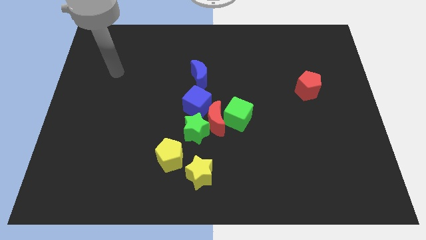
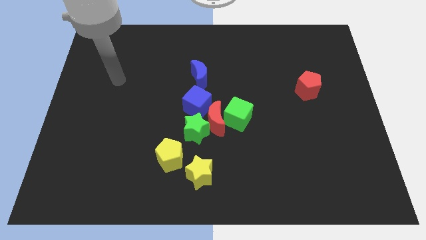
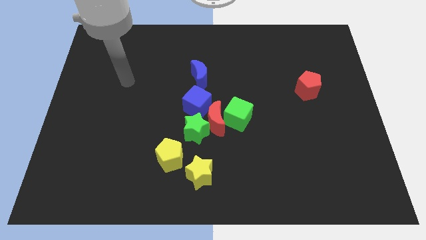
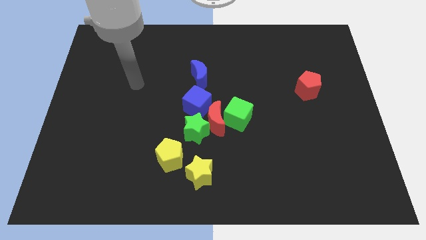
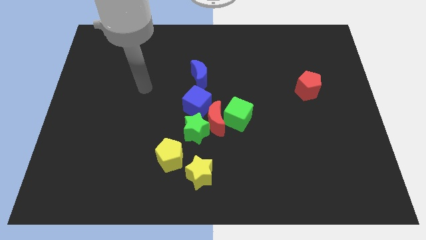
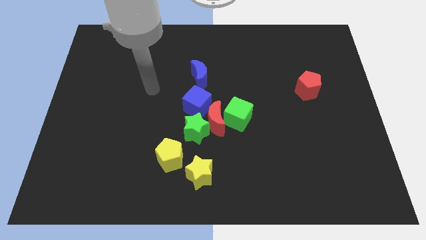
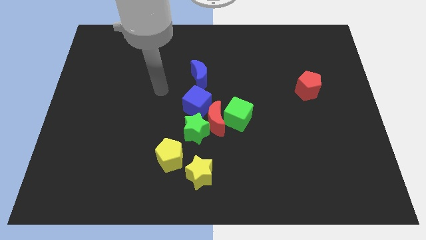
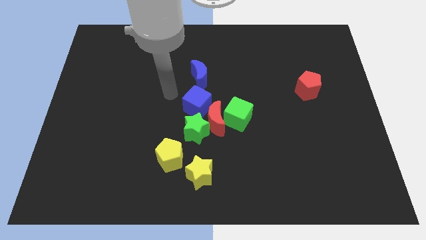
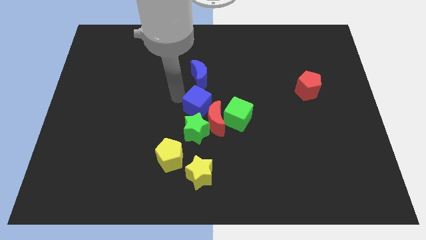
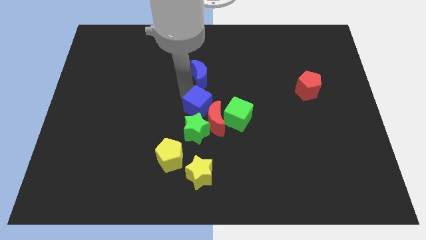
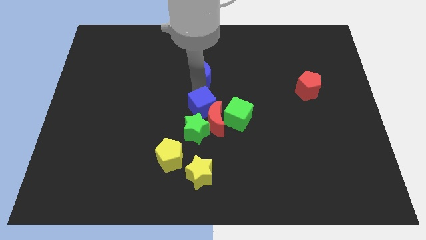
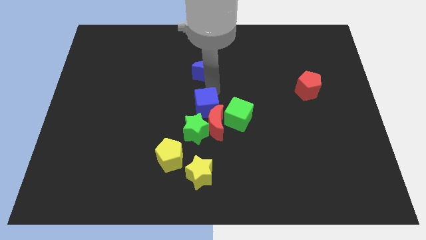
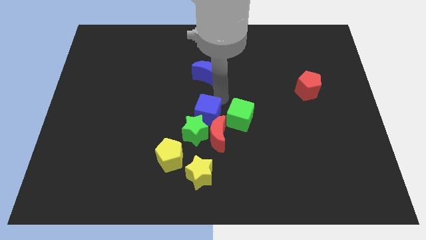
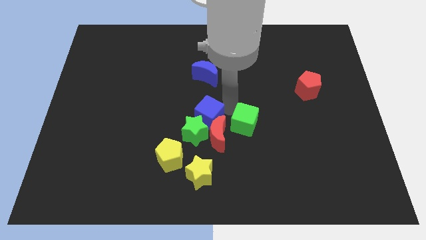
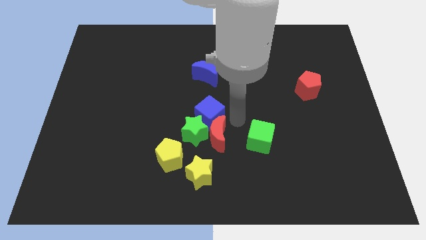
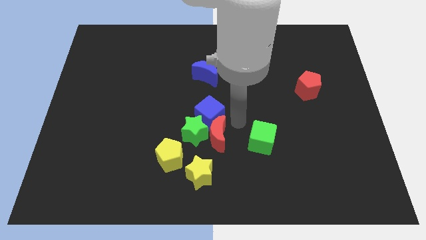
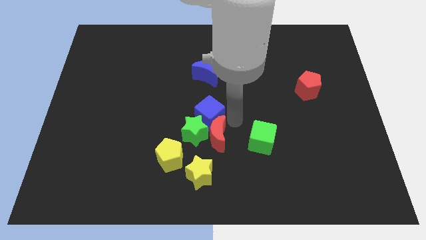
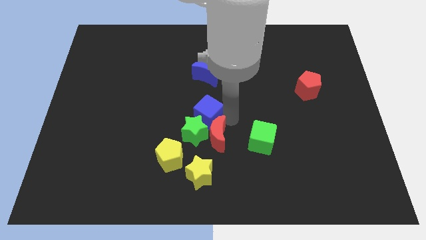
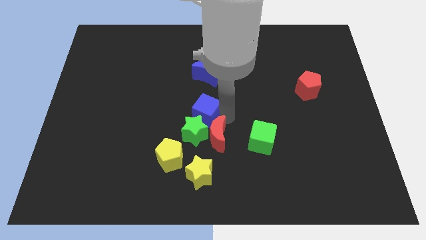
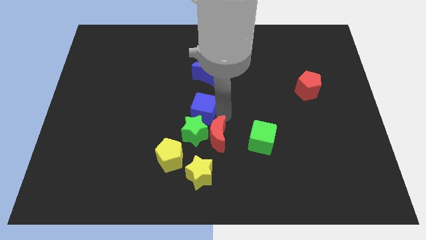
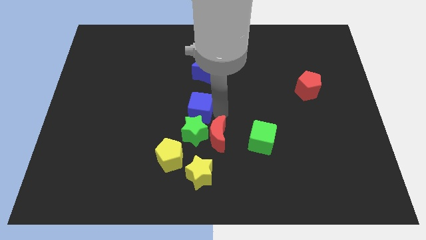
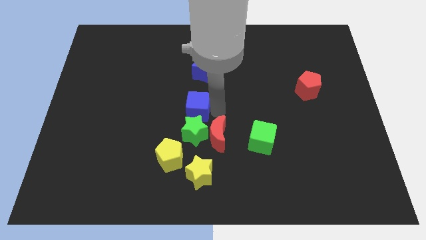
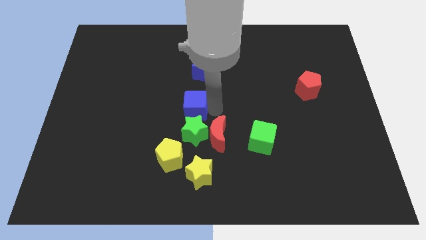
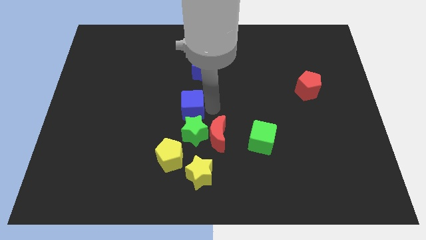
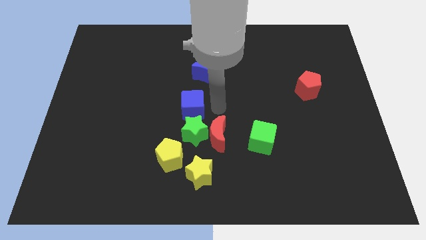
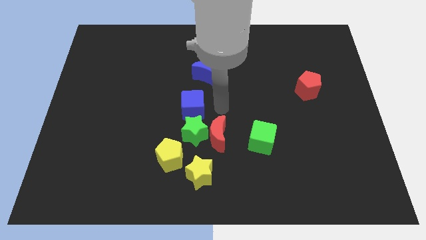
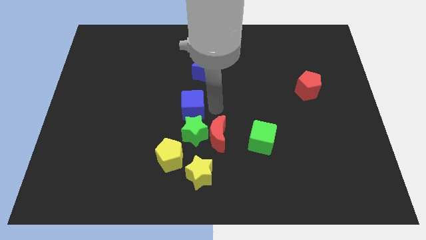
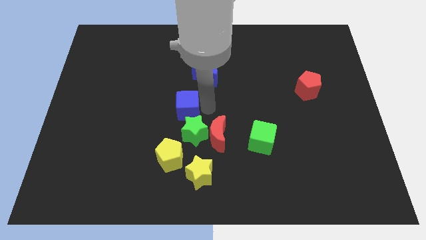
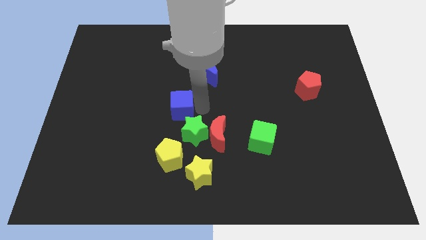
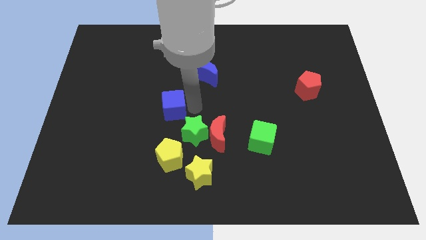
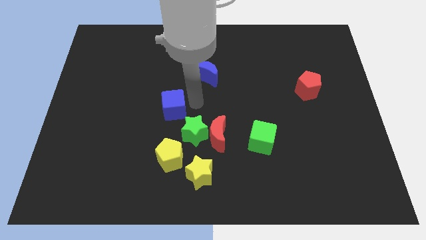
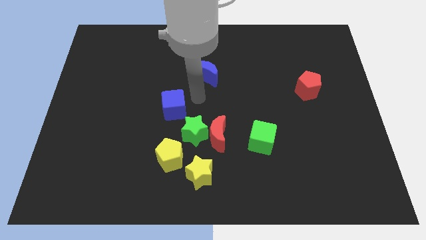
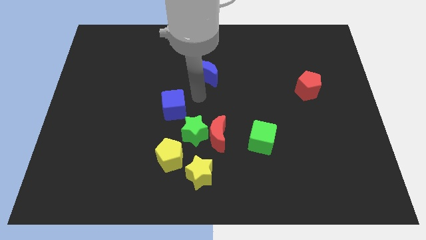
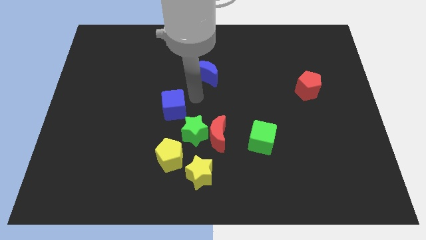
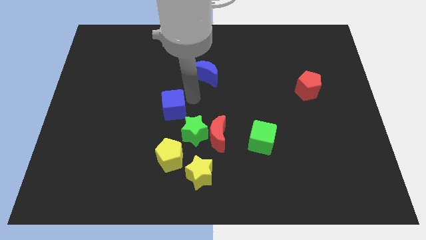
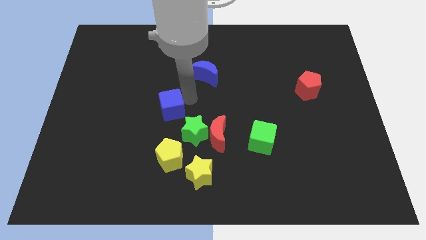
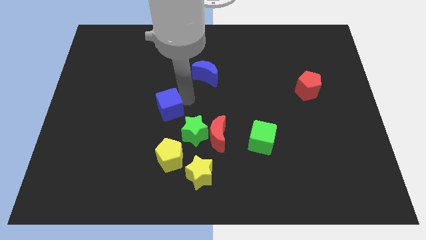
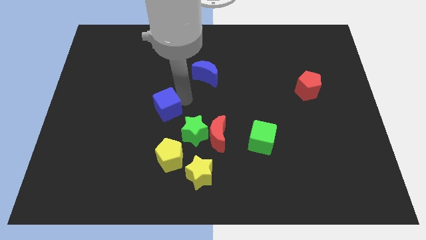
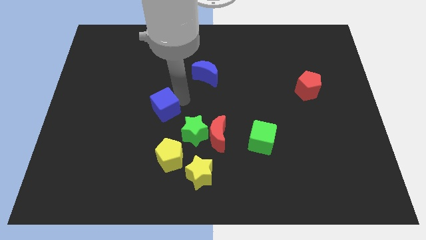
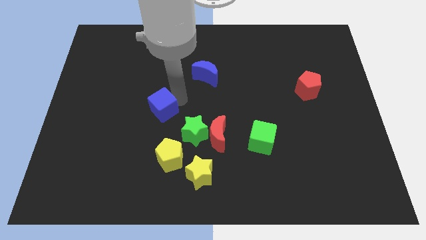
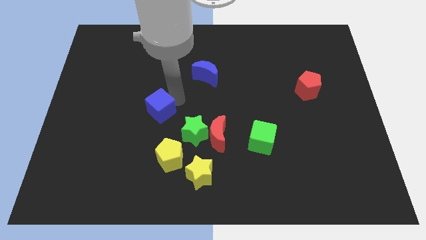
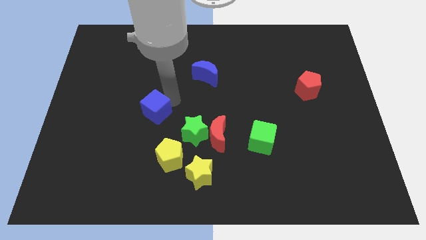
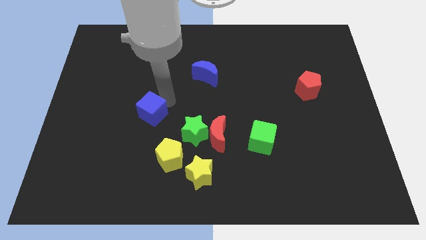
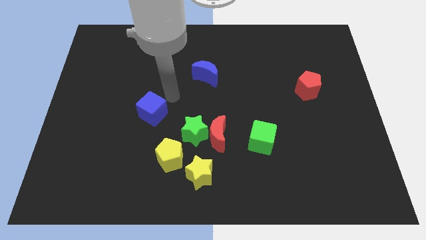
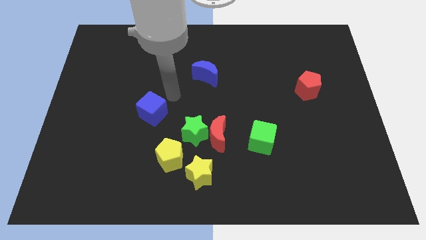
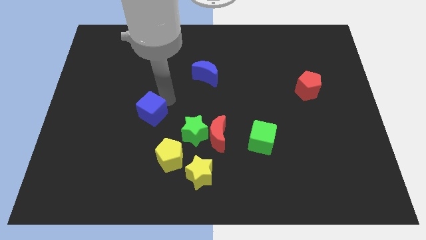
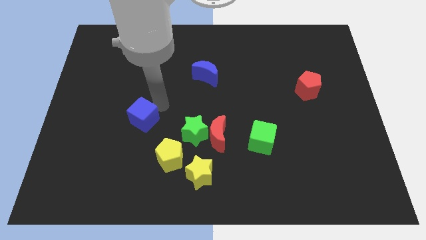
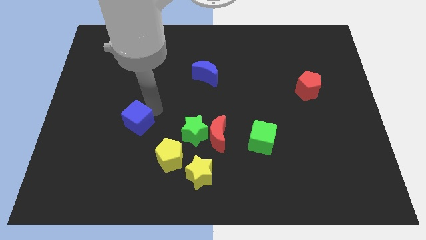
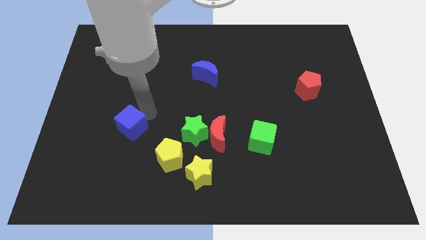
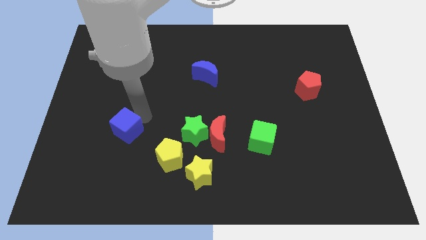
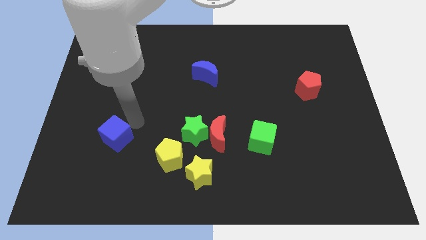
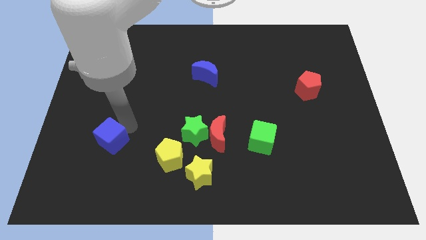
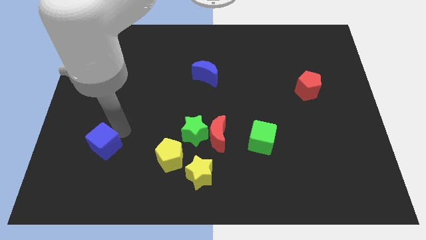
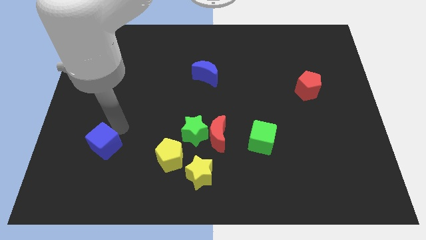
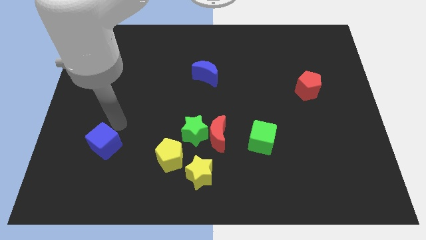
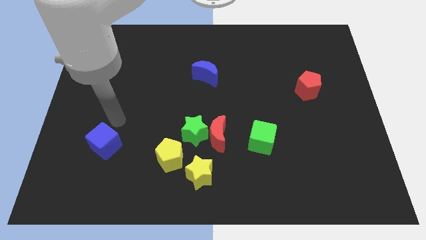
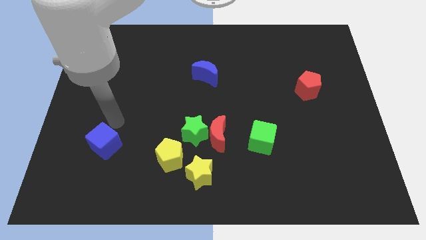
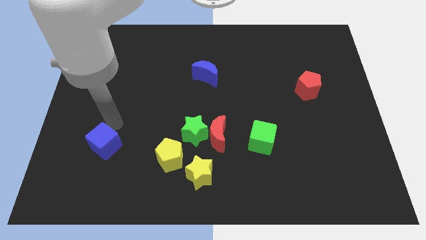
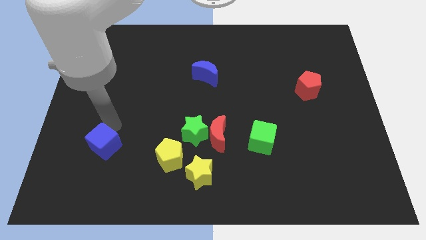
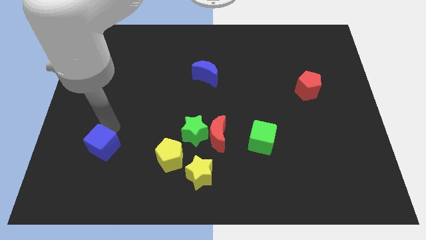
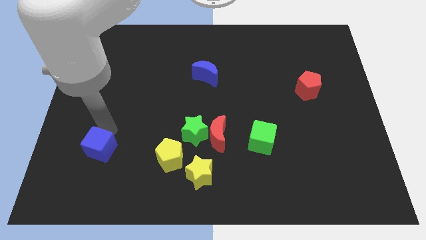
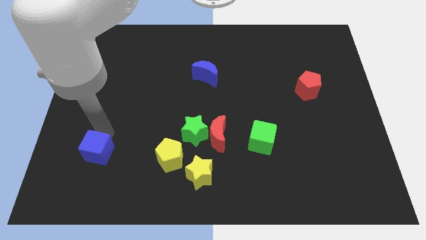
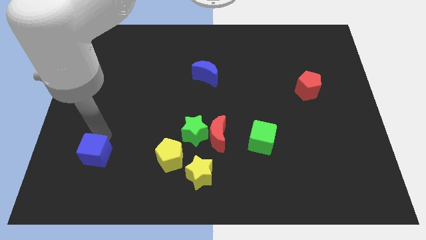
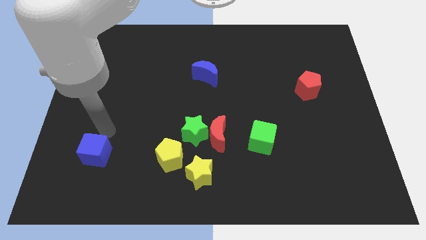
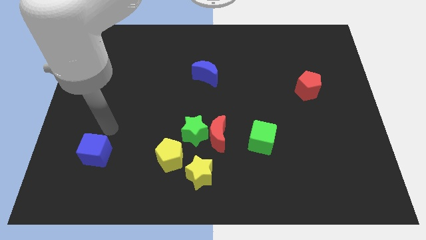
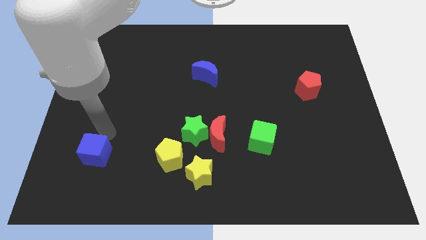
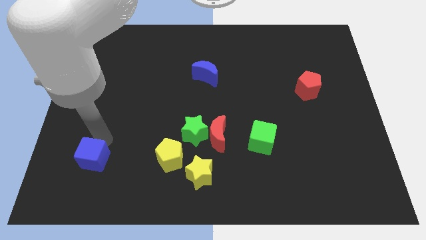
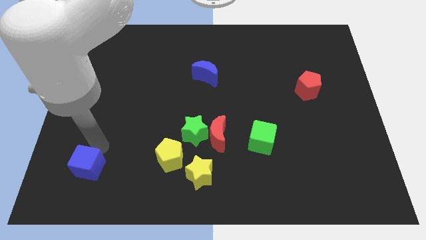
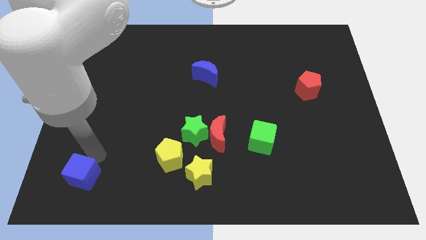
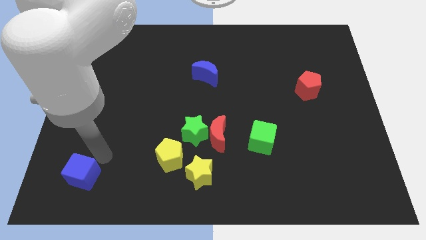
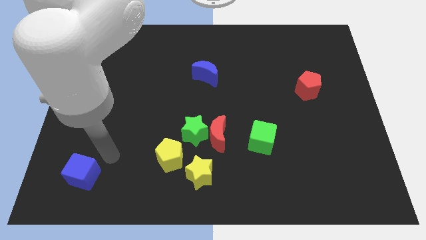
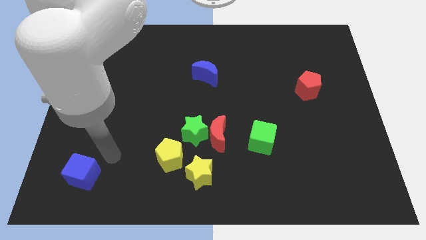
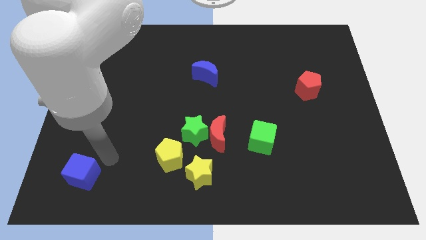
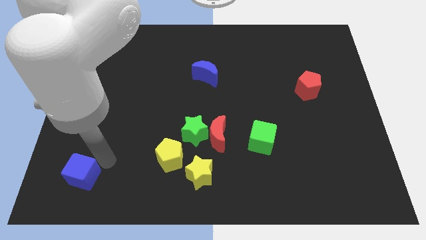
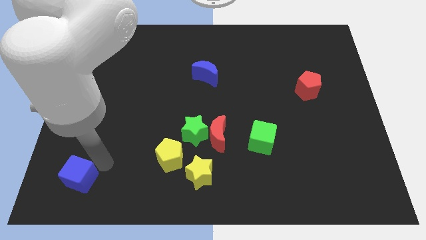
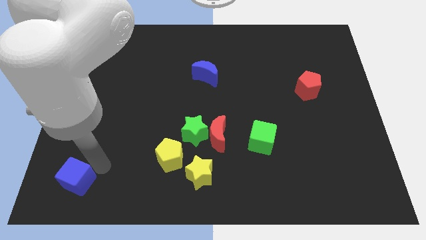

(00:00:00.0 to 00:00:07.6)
move the blue cube to the bottom left

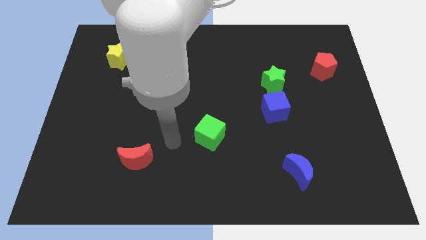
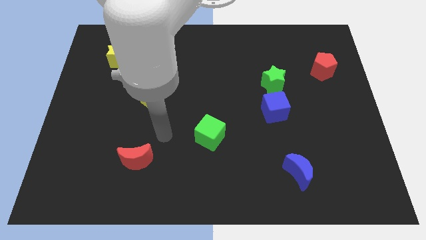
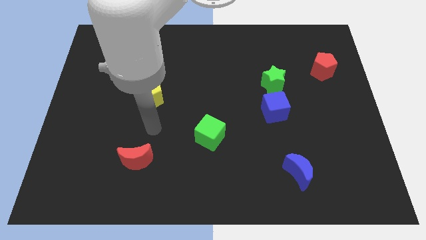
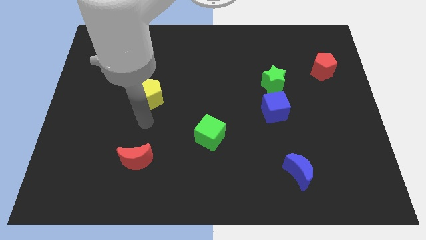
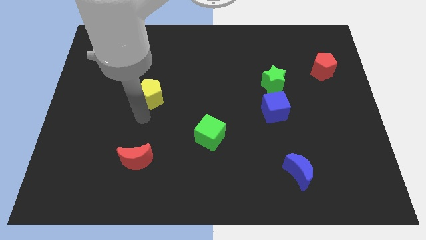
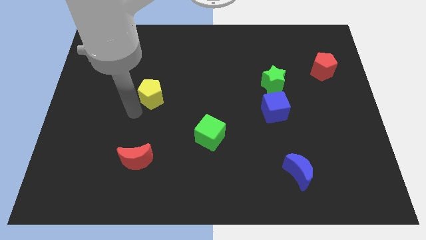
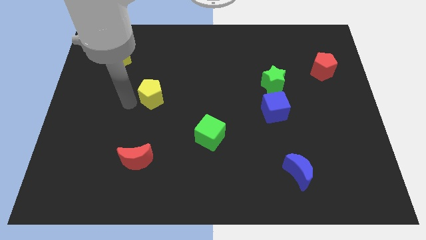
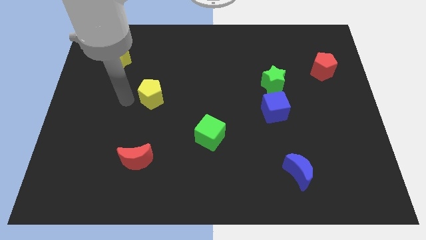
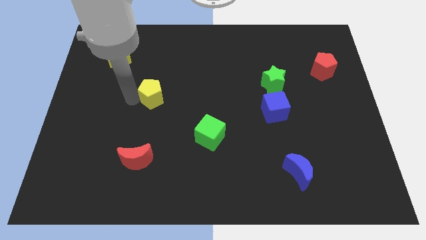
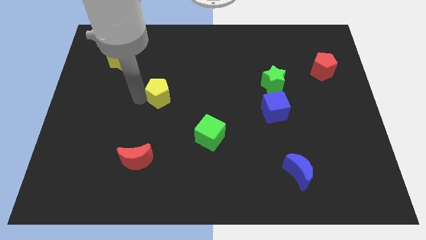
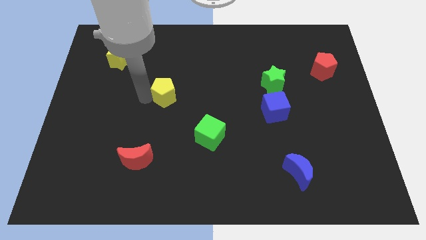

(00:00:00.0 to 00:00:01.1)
put the yellow pentagon to the middle
